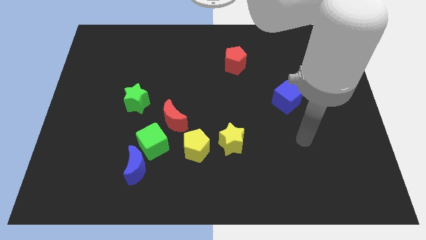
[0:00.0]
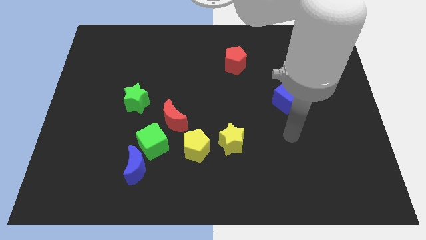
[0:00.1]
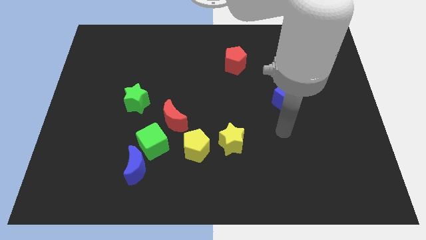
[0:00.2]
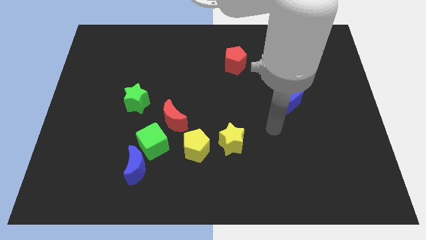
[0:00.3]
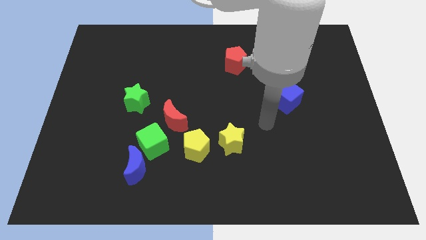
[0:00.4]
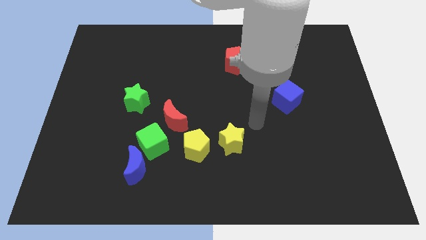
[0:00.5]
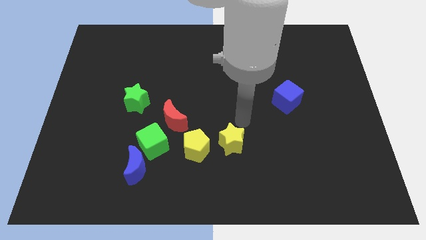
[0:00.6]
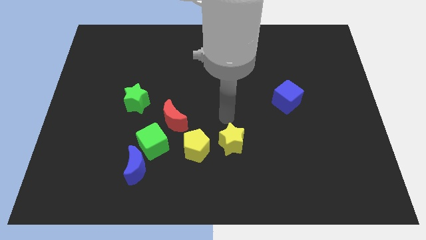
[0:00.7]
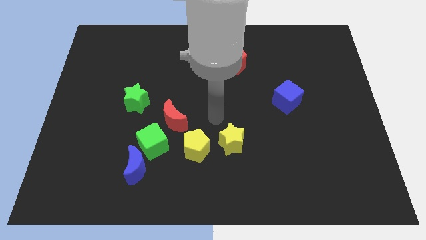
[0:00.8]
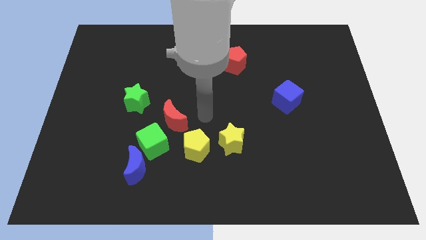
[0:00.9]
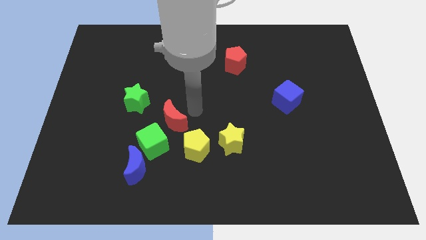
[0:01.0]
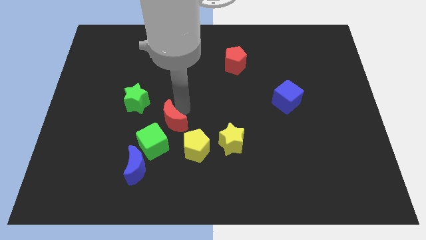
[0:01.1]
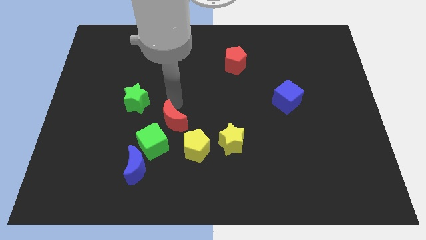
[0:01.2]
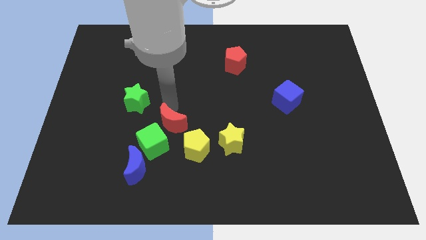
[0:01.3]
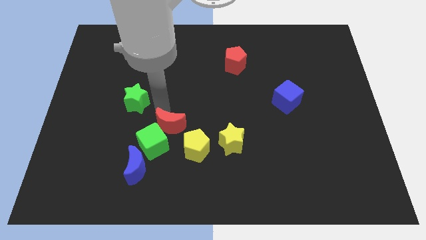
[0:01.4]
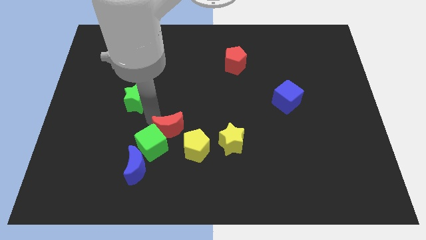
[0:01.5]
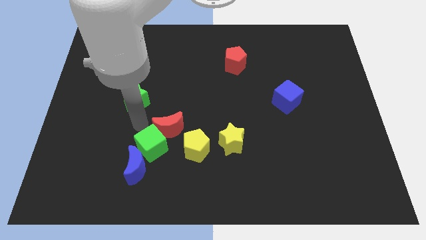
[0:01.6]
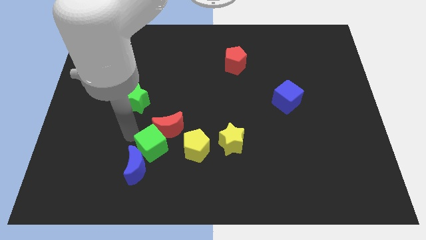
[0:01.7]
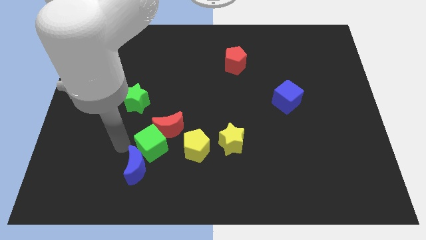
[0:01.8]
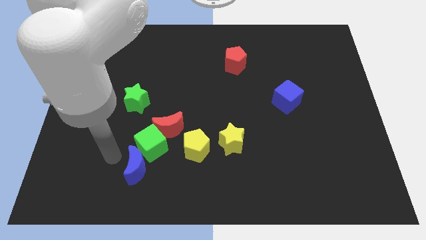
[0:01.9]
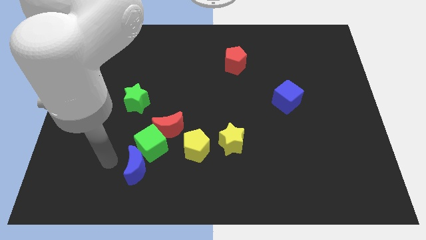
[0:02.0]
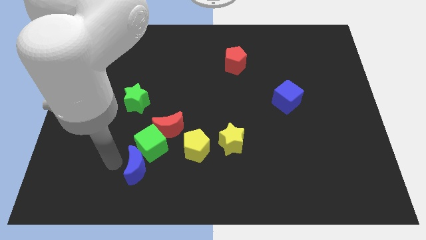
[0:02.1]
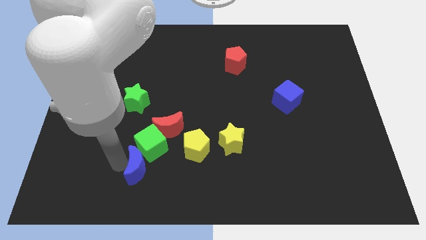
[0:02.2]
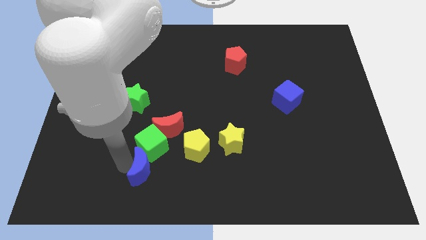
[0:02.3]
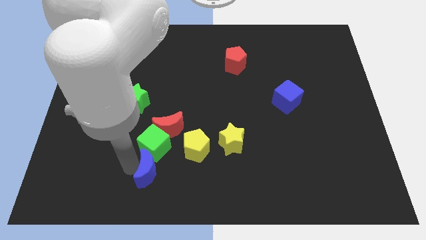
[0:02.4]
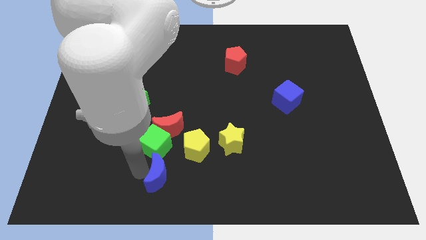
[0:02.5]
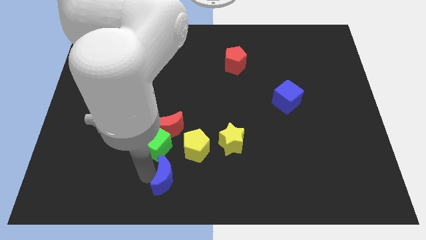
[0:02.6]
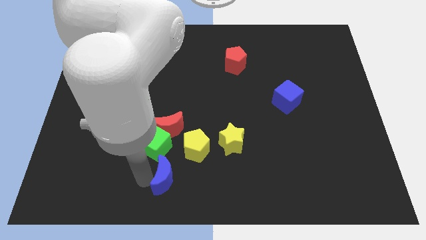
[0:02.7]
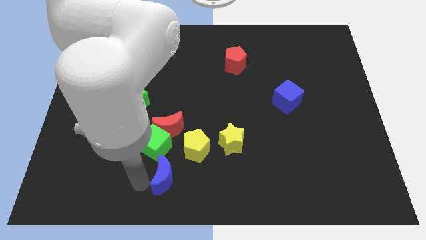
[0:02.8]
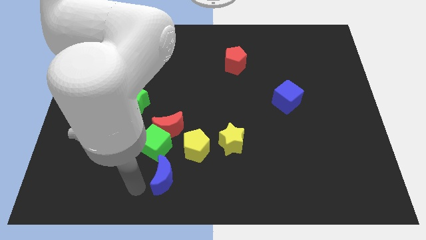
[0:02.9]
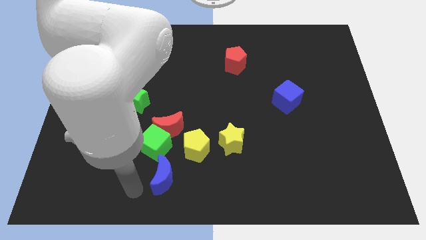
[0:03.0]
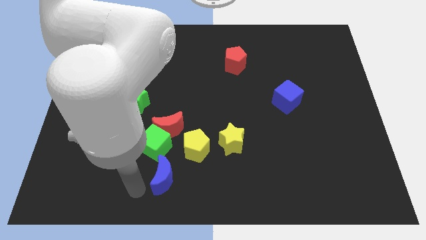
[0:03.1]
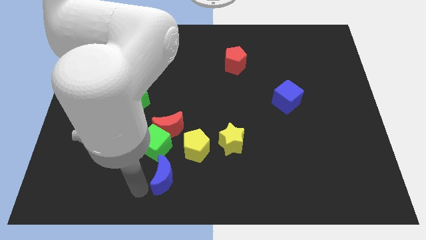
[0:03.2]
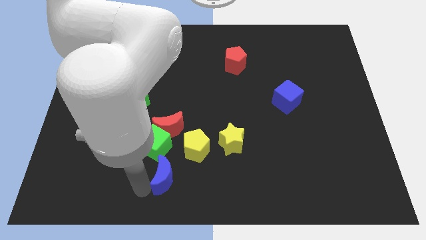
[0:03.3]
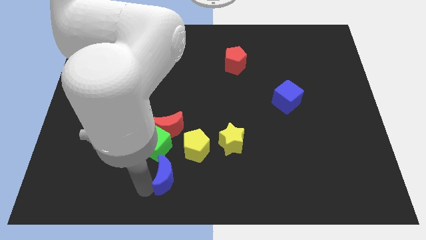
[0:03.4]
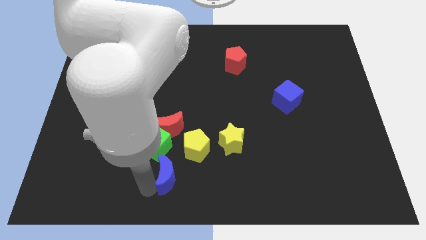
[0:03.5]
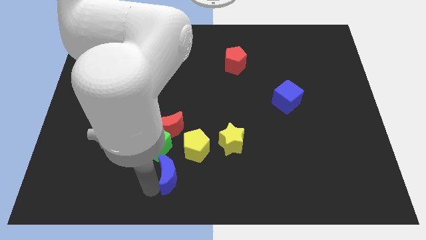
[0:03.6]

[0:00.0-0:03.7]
slightly move the blue moon to the right

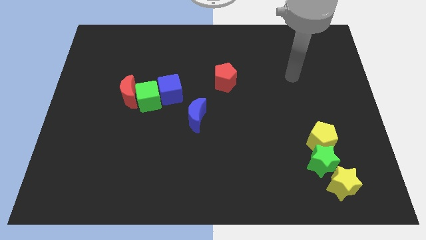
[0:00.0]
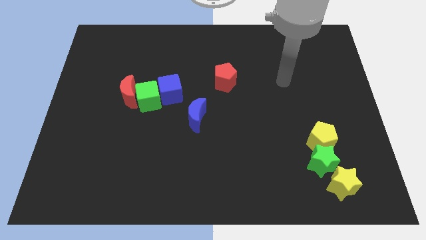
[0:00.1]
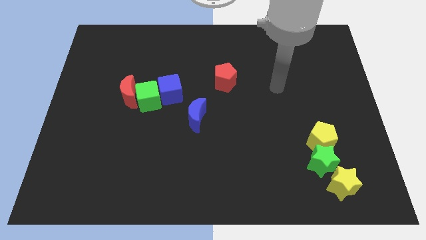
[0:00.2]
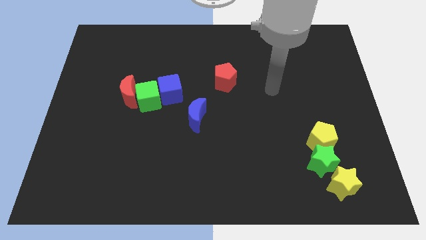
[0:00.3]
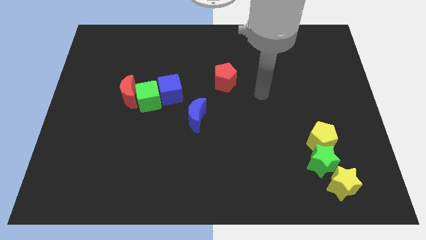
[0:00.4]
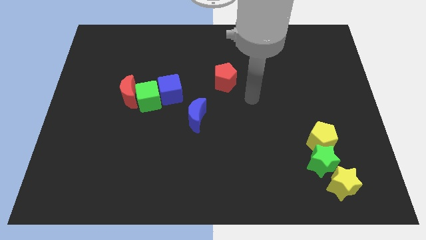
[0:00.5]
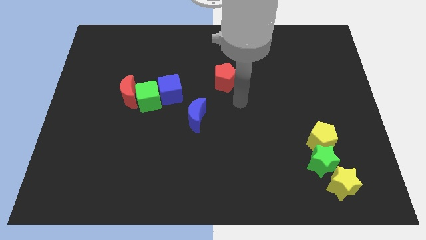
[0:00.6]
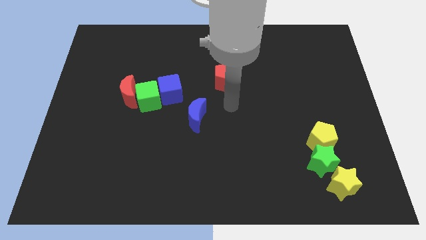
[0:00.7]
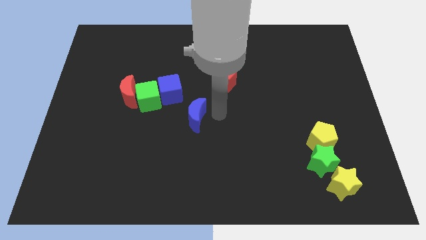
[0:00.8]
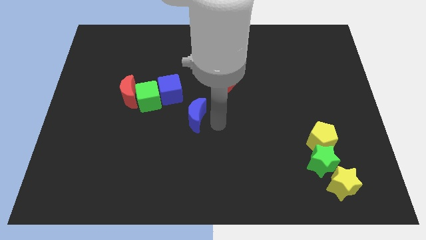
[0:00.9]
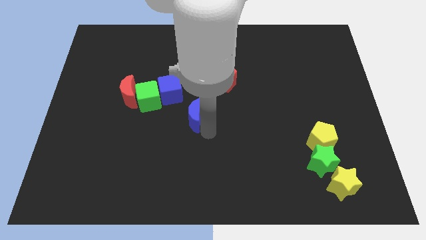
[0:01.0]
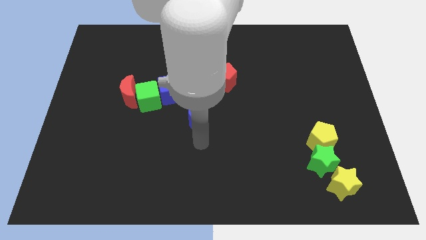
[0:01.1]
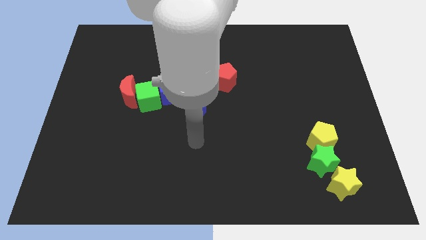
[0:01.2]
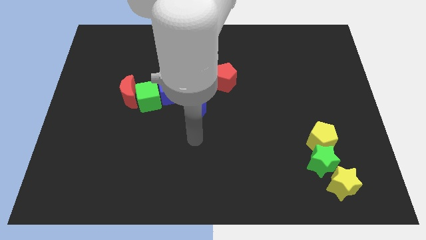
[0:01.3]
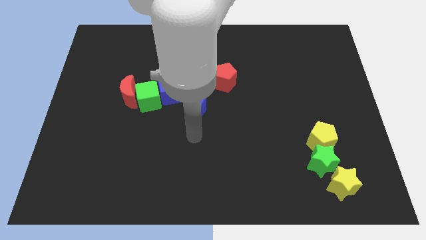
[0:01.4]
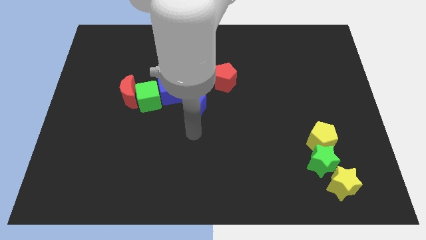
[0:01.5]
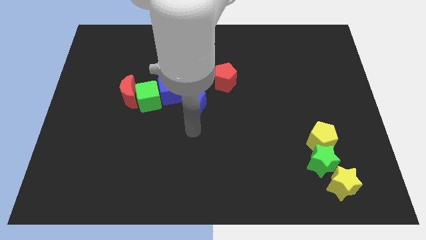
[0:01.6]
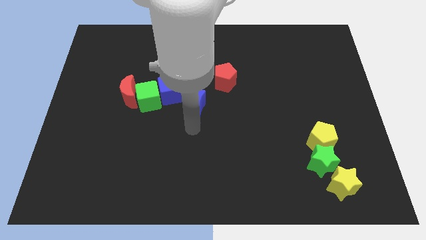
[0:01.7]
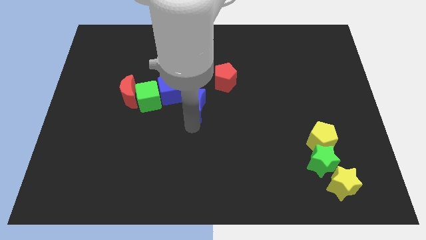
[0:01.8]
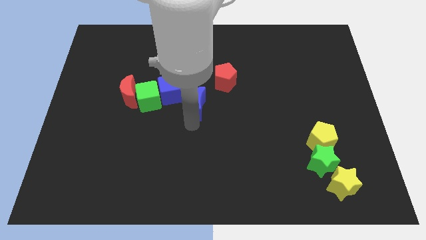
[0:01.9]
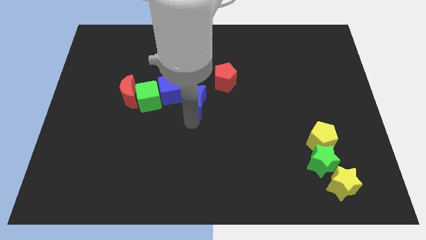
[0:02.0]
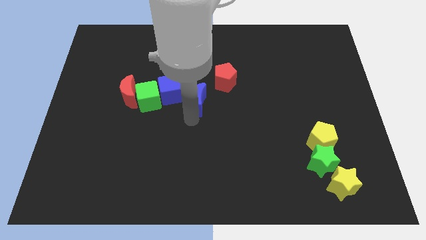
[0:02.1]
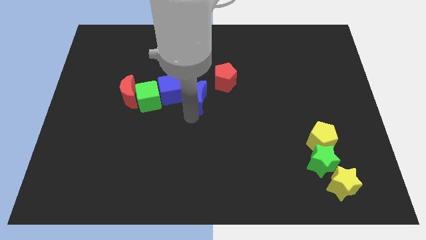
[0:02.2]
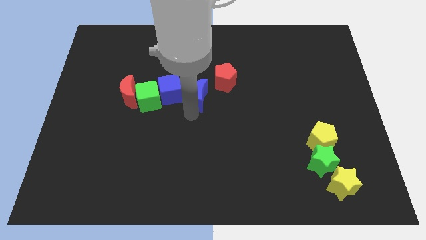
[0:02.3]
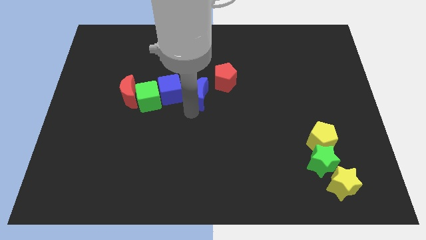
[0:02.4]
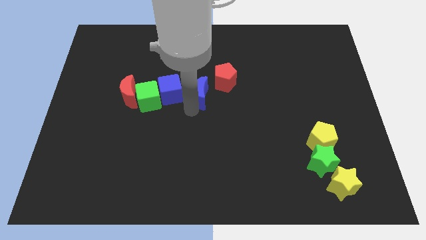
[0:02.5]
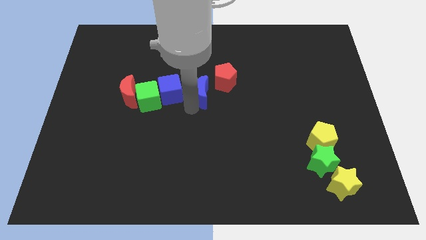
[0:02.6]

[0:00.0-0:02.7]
slightly slide the blue moon upwards

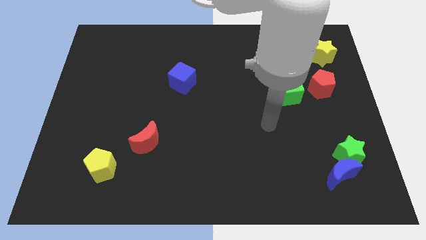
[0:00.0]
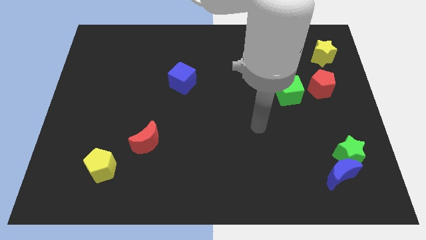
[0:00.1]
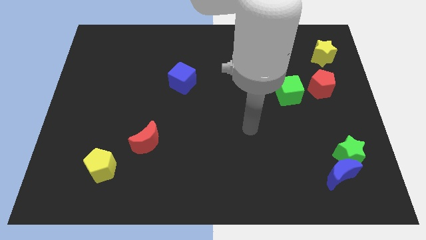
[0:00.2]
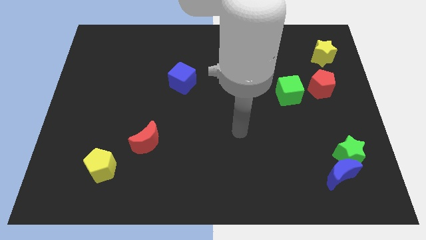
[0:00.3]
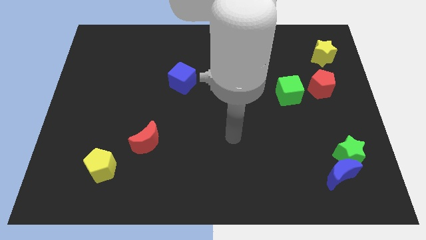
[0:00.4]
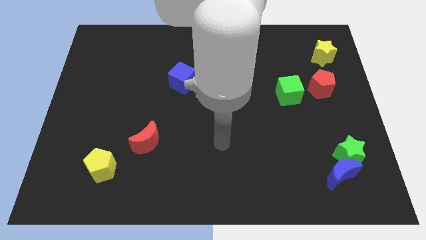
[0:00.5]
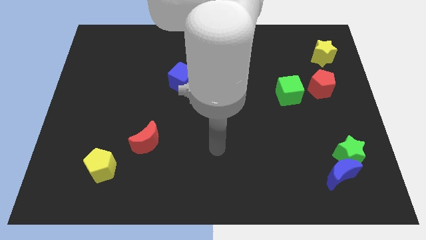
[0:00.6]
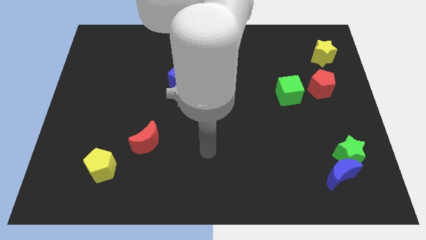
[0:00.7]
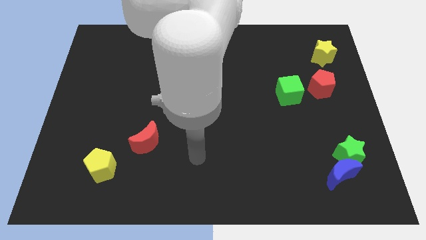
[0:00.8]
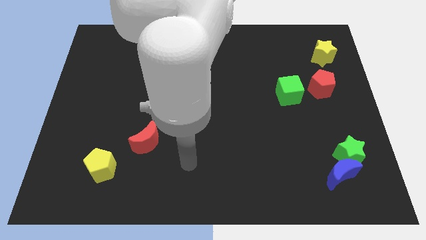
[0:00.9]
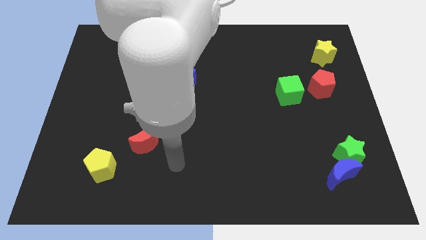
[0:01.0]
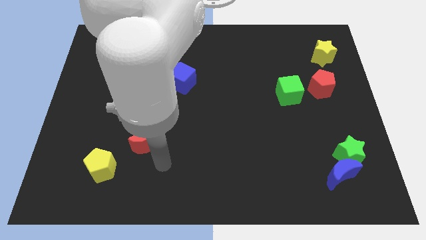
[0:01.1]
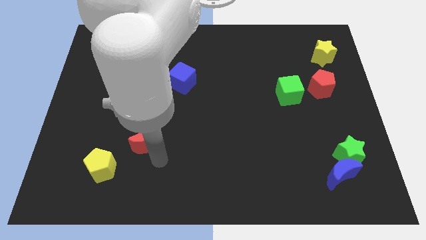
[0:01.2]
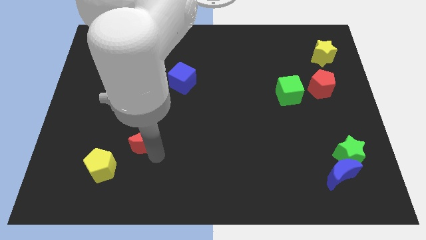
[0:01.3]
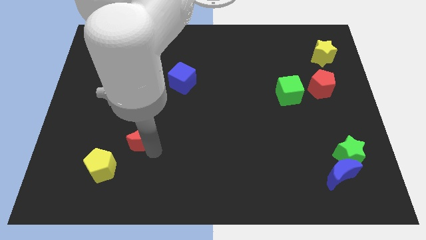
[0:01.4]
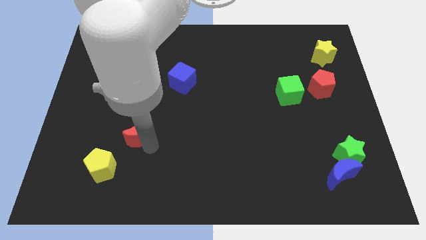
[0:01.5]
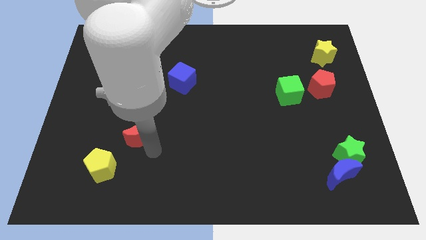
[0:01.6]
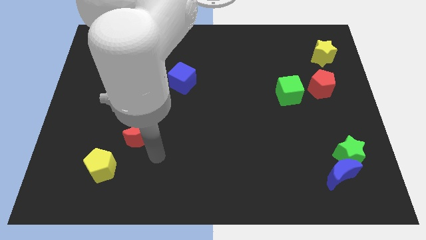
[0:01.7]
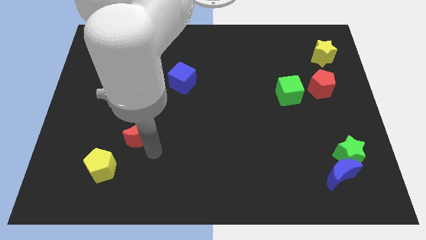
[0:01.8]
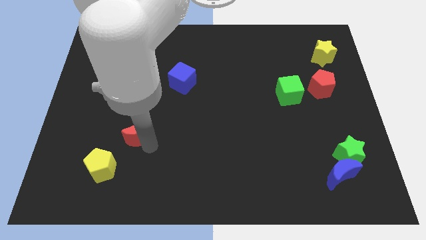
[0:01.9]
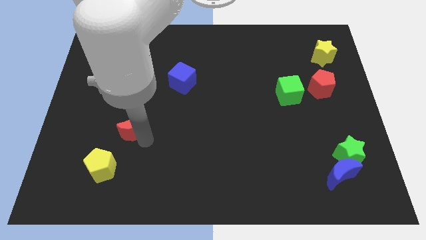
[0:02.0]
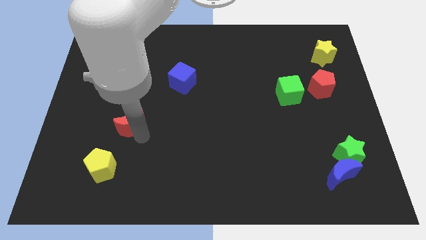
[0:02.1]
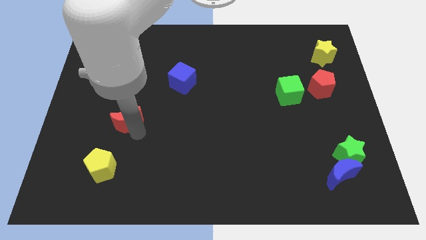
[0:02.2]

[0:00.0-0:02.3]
move the red moon a little up and to the left diagonally
